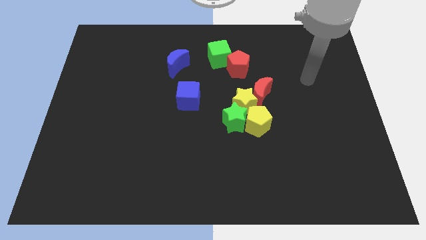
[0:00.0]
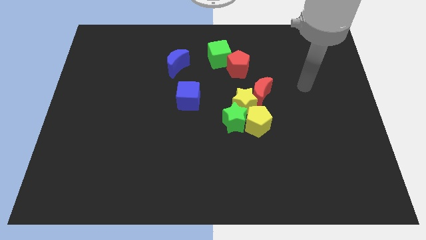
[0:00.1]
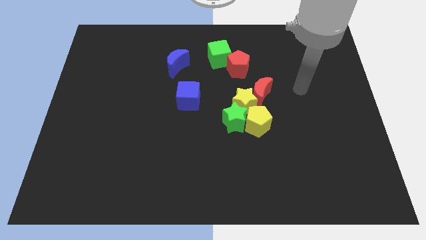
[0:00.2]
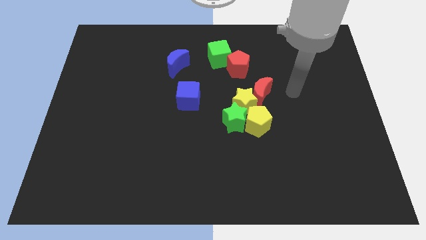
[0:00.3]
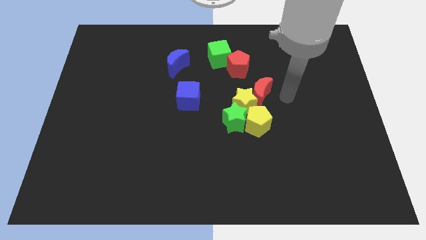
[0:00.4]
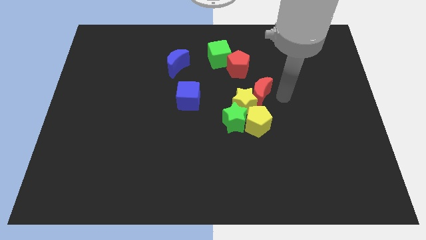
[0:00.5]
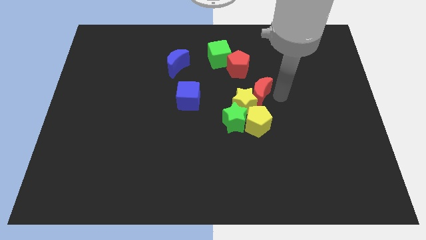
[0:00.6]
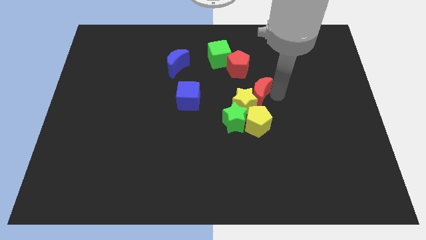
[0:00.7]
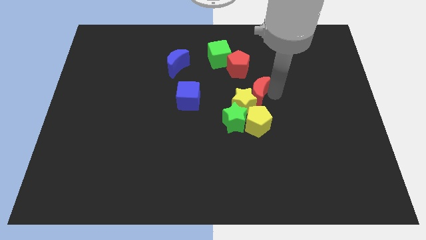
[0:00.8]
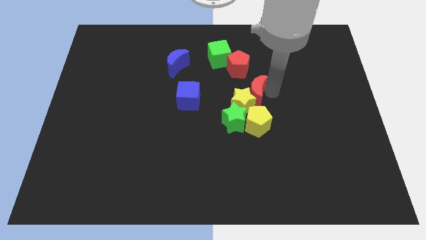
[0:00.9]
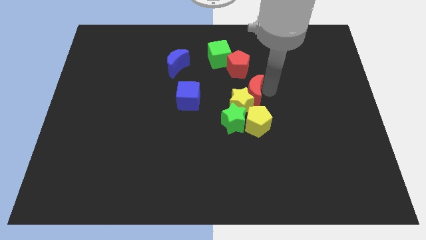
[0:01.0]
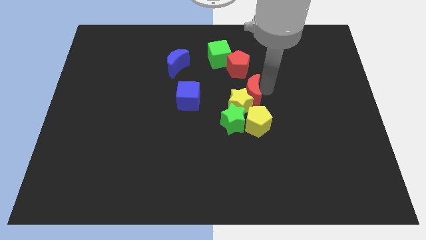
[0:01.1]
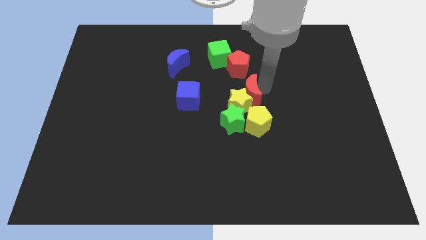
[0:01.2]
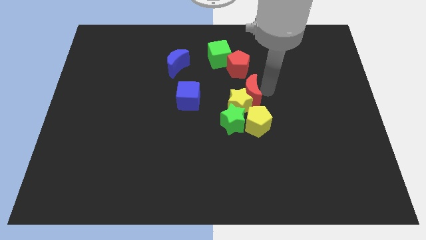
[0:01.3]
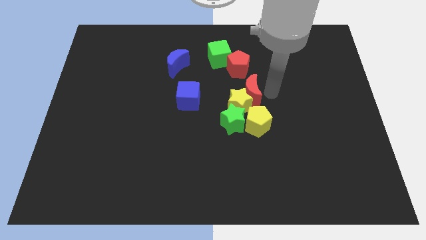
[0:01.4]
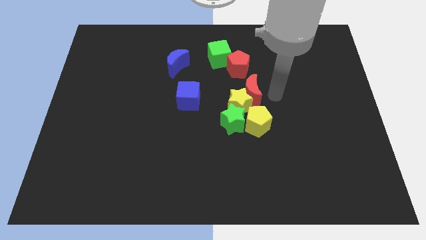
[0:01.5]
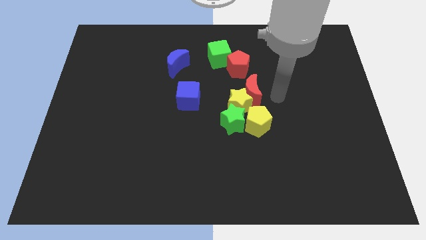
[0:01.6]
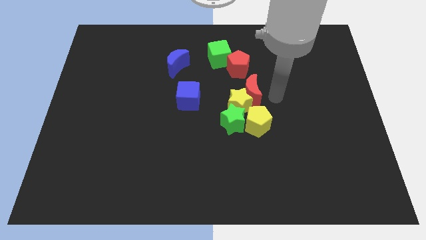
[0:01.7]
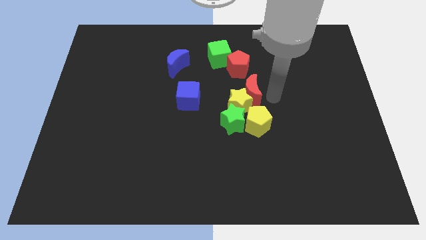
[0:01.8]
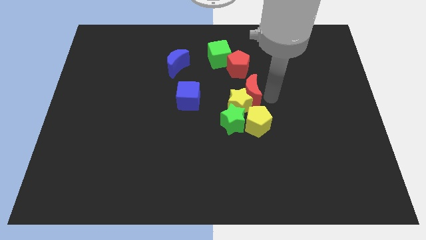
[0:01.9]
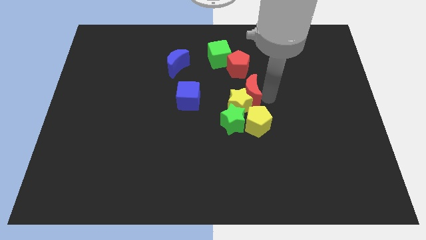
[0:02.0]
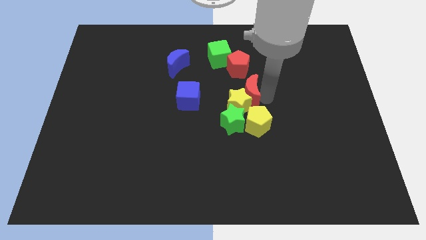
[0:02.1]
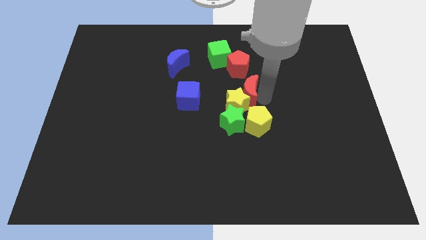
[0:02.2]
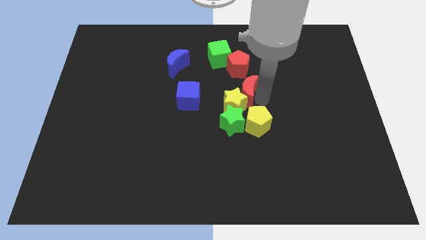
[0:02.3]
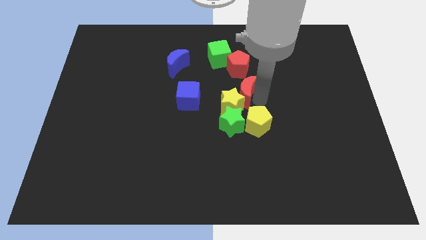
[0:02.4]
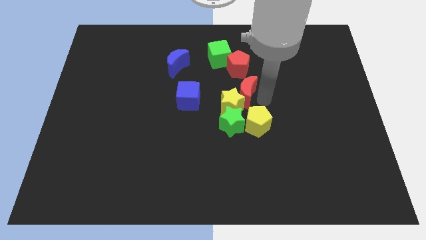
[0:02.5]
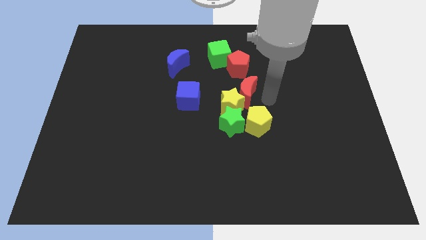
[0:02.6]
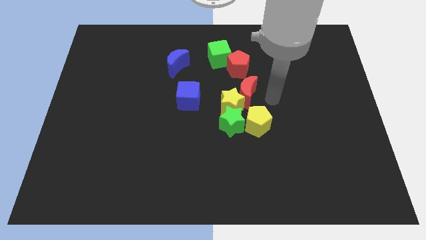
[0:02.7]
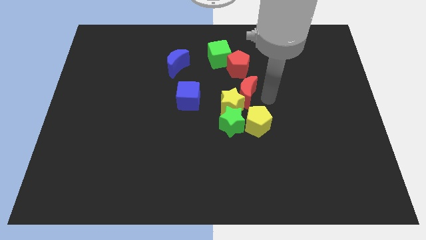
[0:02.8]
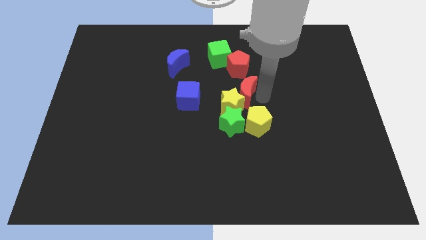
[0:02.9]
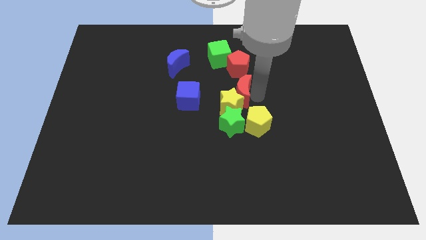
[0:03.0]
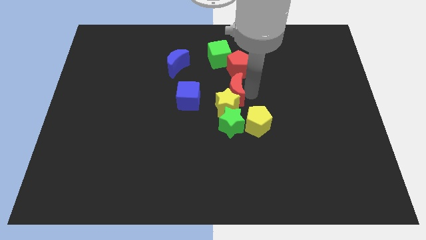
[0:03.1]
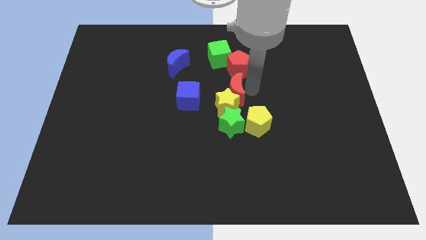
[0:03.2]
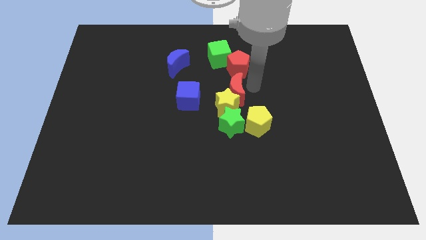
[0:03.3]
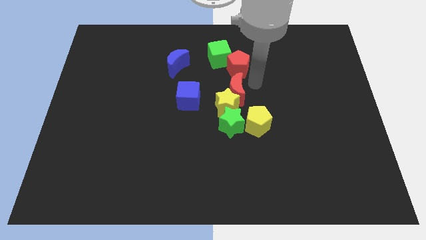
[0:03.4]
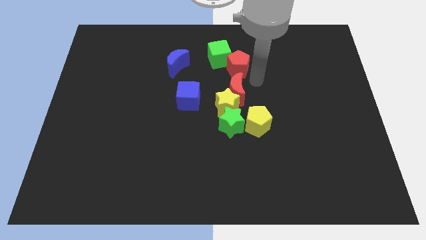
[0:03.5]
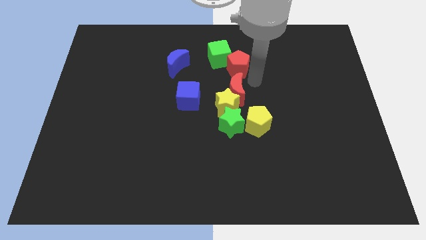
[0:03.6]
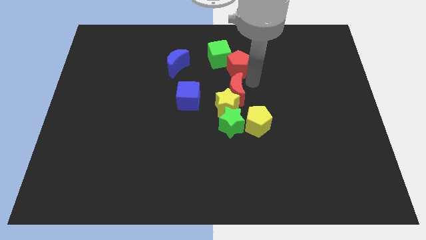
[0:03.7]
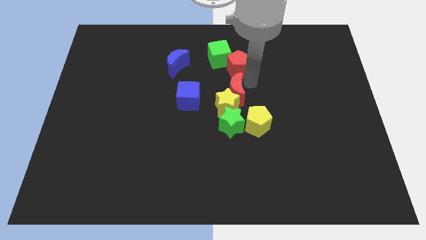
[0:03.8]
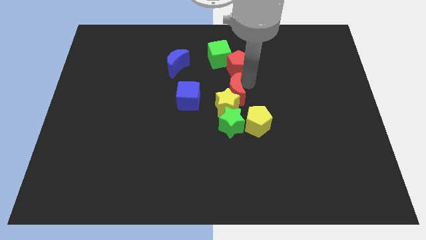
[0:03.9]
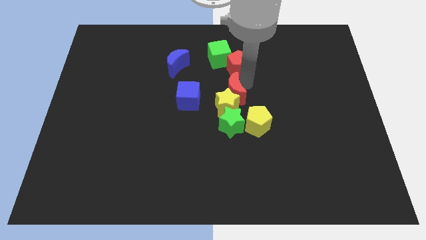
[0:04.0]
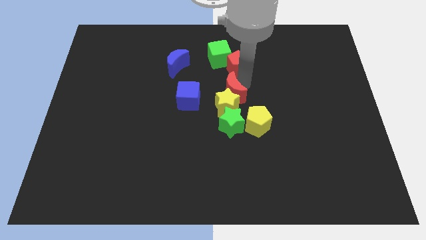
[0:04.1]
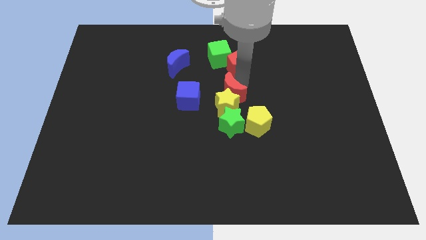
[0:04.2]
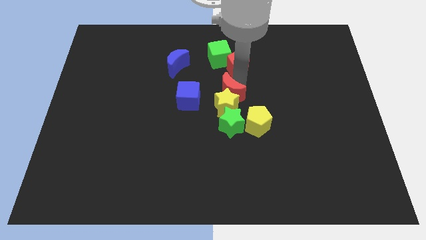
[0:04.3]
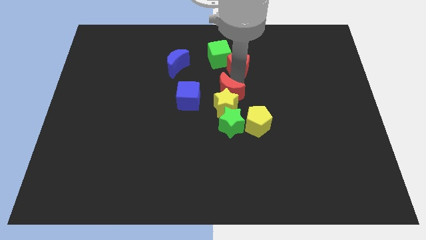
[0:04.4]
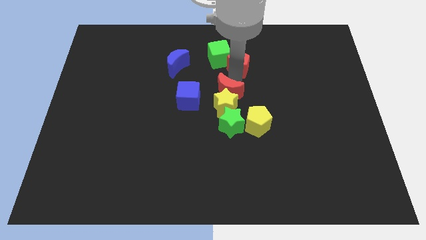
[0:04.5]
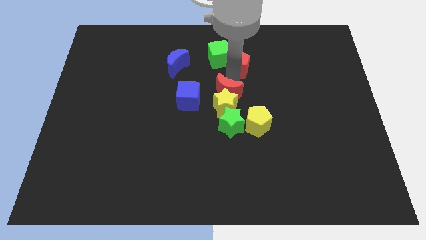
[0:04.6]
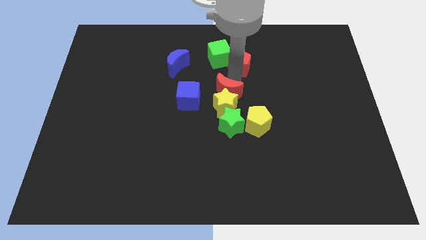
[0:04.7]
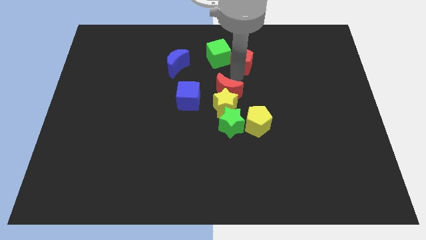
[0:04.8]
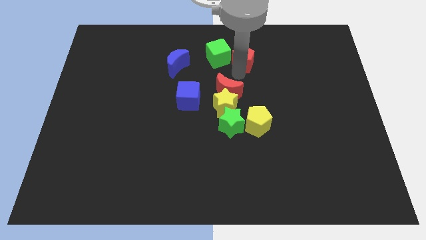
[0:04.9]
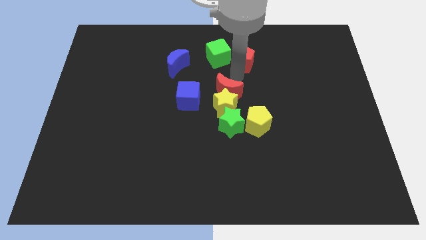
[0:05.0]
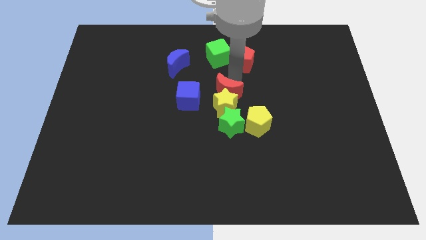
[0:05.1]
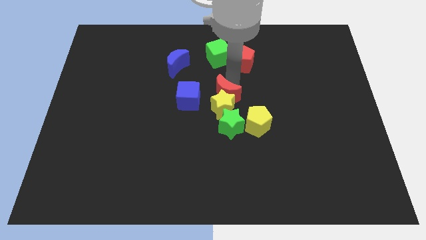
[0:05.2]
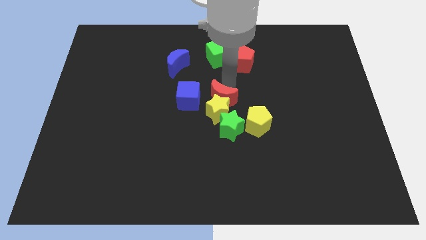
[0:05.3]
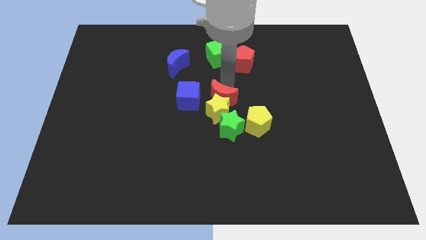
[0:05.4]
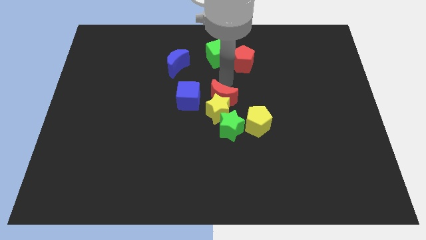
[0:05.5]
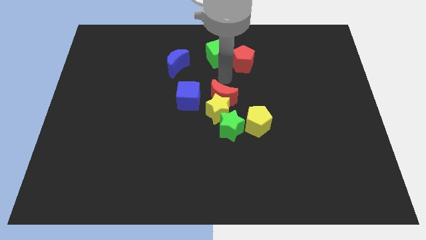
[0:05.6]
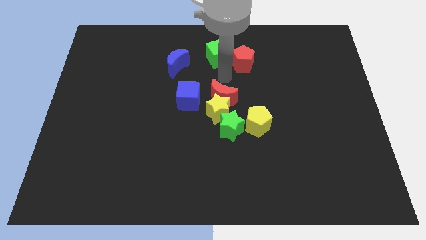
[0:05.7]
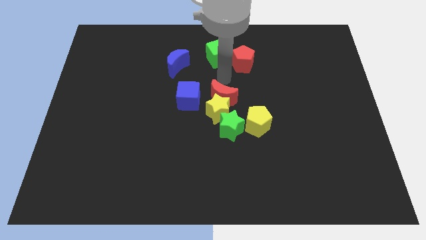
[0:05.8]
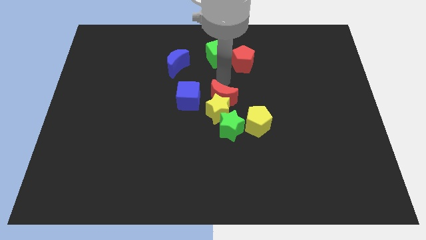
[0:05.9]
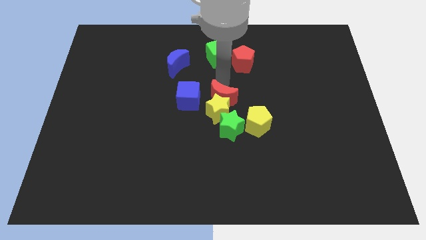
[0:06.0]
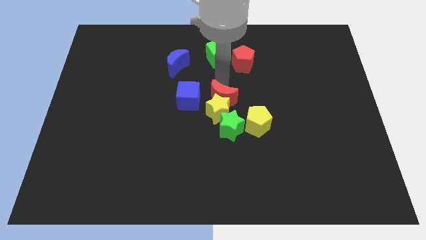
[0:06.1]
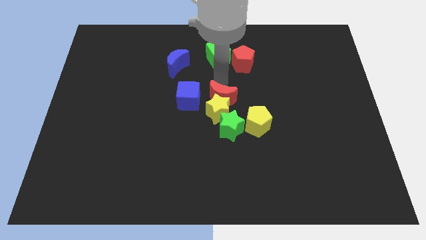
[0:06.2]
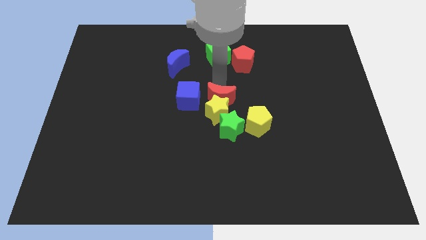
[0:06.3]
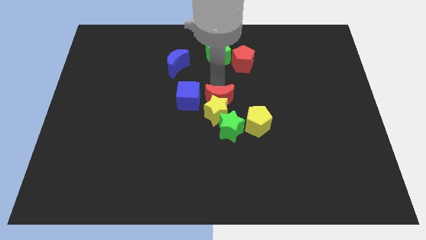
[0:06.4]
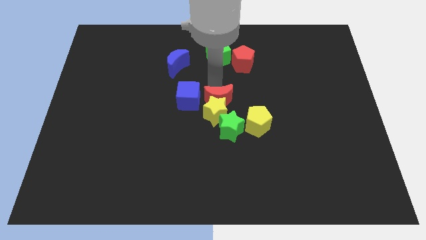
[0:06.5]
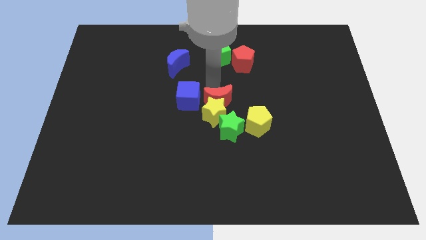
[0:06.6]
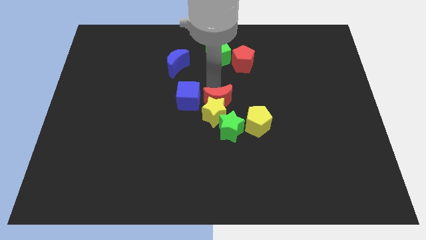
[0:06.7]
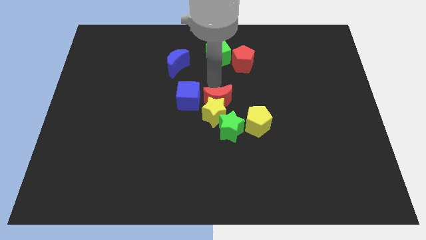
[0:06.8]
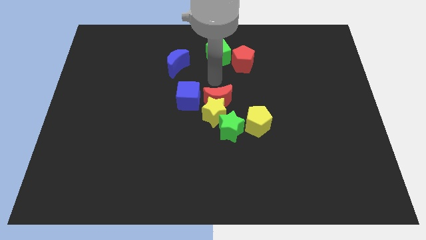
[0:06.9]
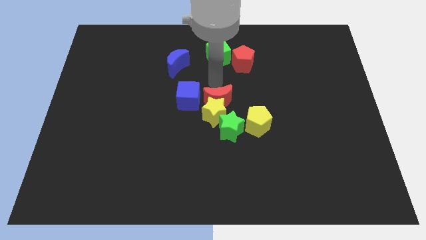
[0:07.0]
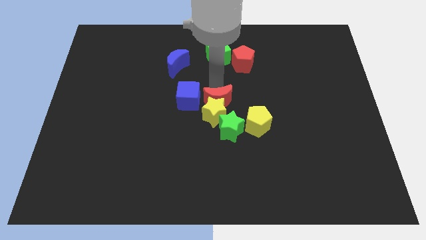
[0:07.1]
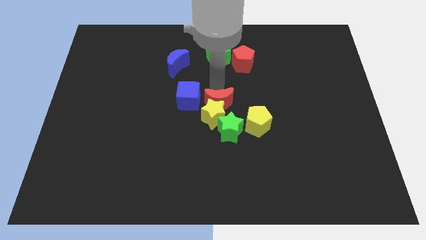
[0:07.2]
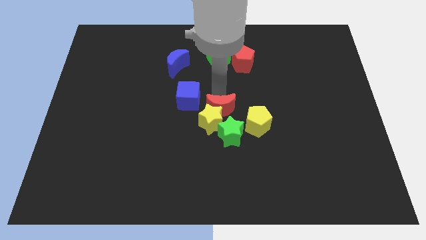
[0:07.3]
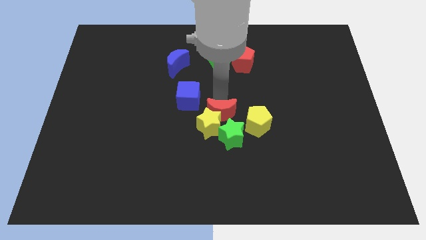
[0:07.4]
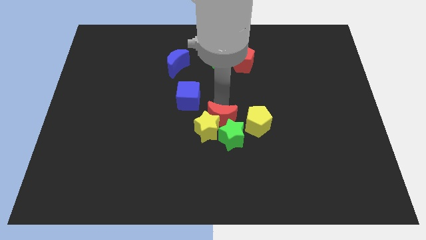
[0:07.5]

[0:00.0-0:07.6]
push the red moon towards the green star
